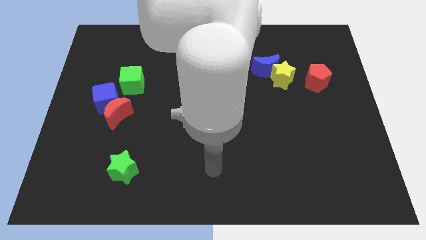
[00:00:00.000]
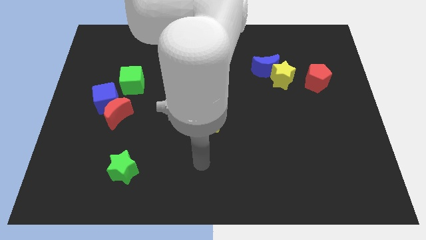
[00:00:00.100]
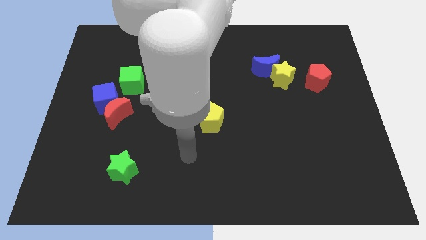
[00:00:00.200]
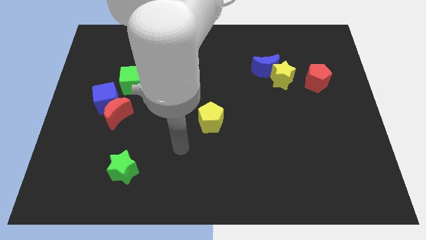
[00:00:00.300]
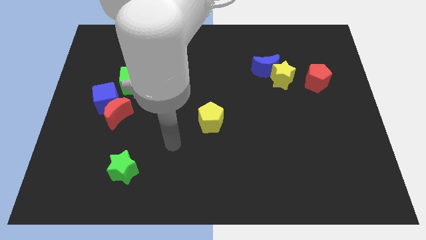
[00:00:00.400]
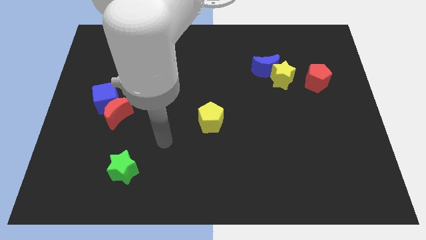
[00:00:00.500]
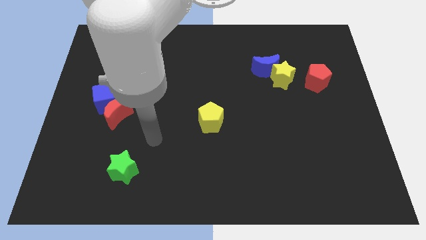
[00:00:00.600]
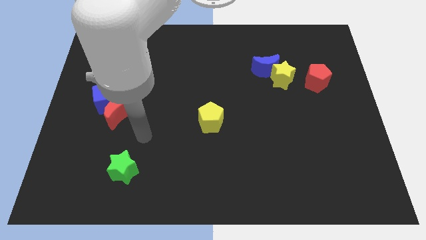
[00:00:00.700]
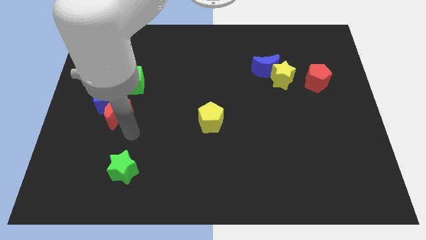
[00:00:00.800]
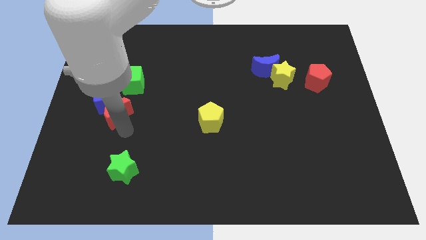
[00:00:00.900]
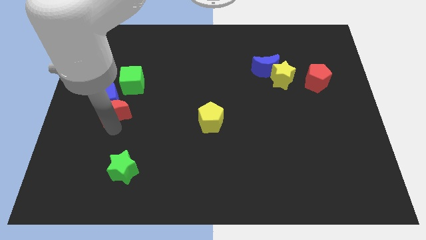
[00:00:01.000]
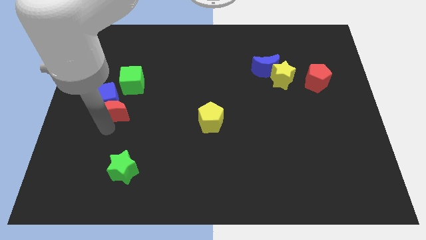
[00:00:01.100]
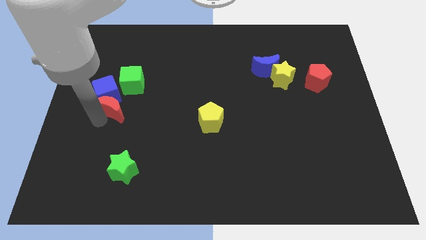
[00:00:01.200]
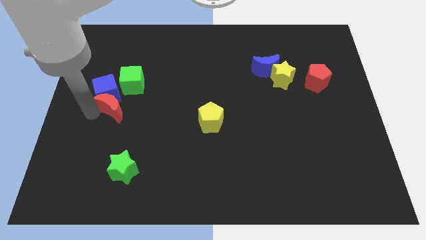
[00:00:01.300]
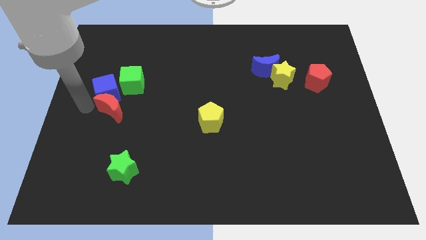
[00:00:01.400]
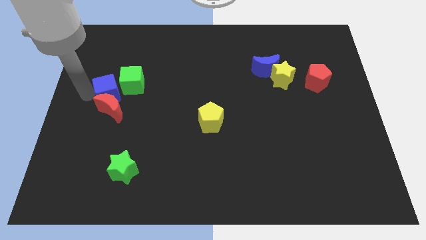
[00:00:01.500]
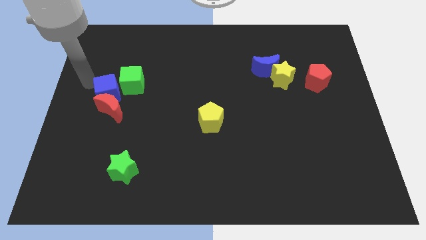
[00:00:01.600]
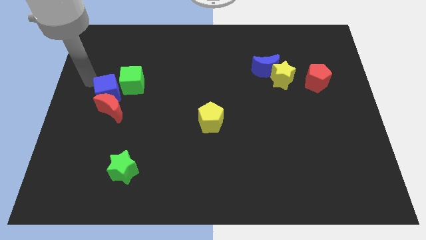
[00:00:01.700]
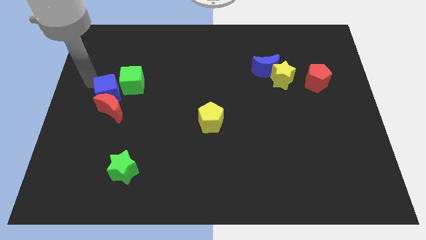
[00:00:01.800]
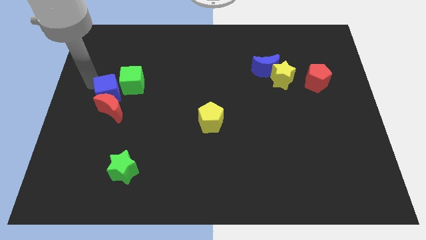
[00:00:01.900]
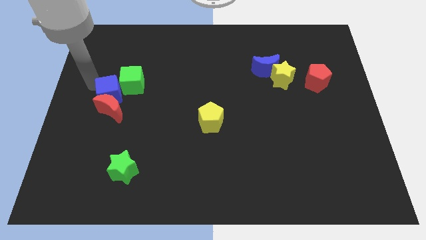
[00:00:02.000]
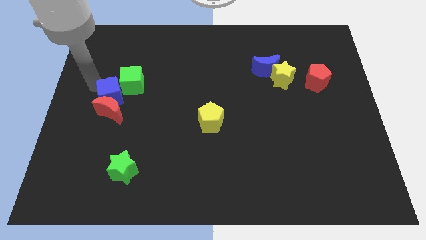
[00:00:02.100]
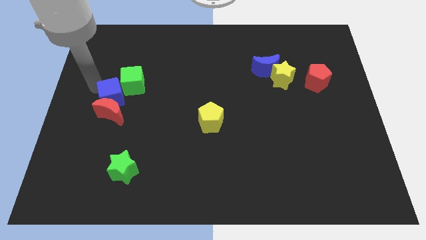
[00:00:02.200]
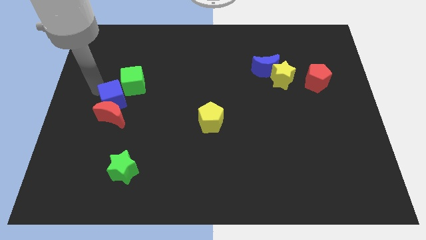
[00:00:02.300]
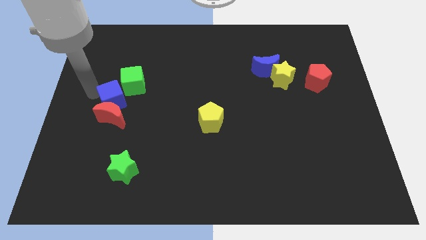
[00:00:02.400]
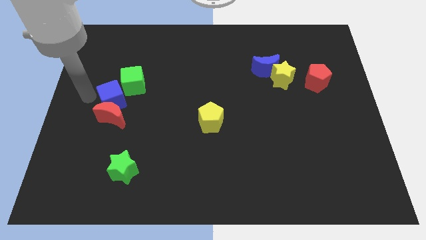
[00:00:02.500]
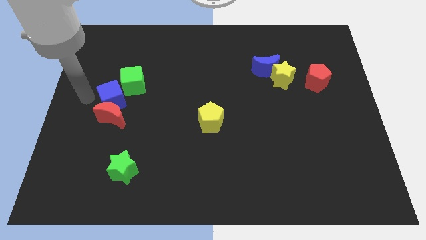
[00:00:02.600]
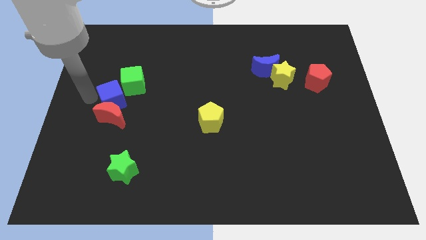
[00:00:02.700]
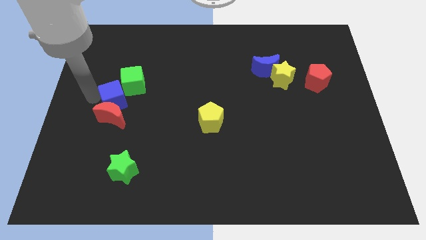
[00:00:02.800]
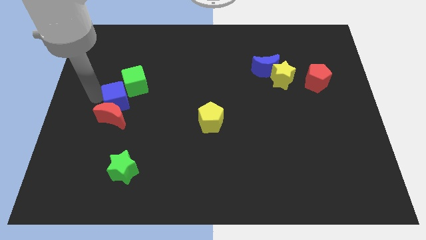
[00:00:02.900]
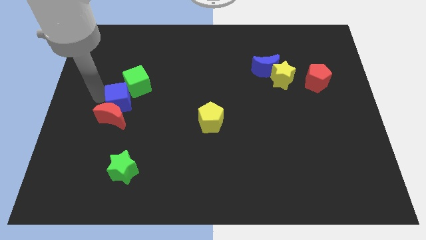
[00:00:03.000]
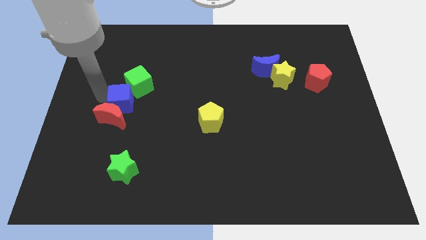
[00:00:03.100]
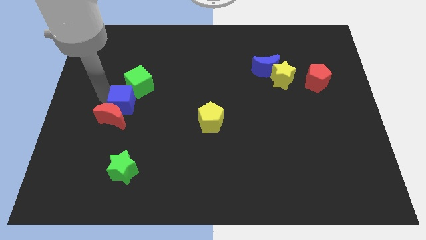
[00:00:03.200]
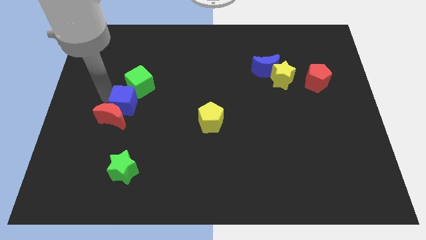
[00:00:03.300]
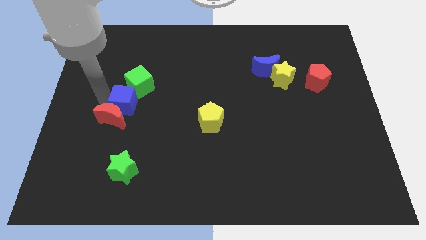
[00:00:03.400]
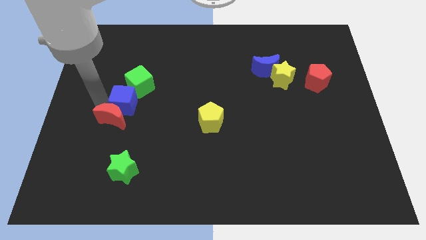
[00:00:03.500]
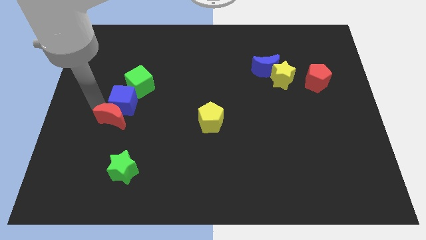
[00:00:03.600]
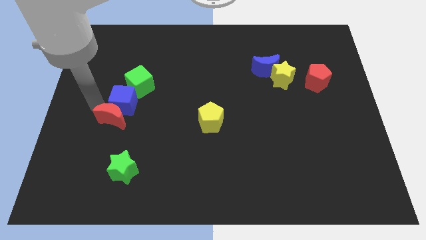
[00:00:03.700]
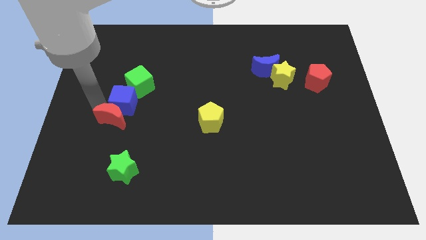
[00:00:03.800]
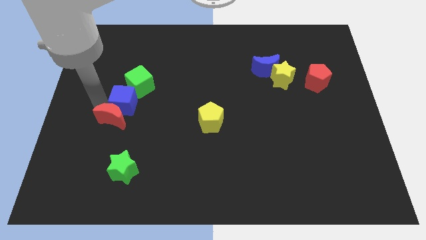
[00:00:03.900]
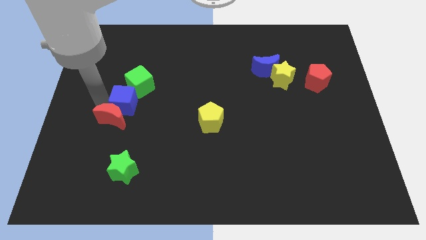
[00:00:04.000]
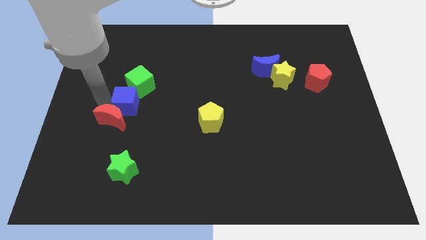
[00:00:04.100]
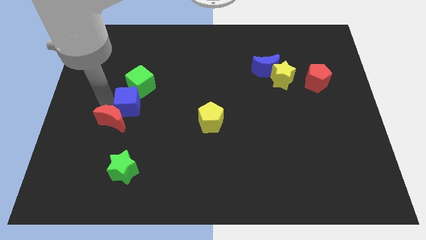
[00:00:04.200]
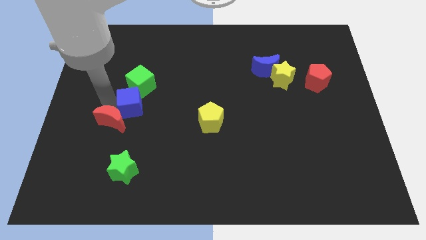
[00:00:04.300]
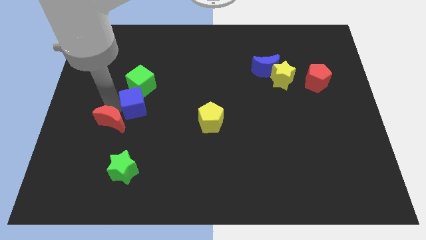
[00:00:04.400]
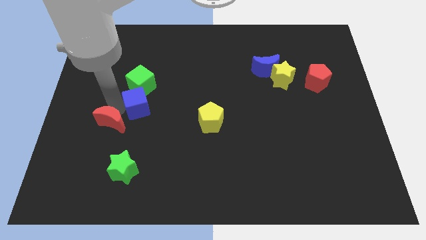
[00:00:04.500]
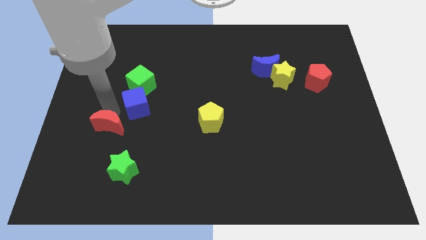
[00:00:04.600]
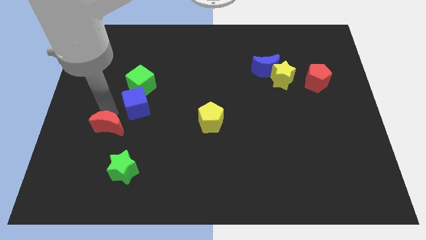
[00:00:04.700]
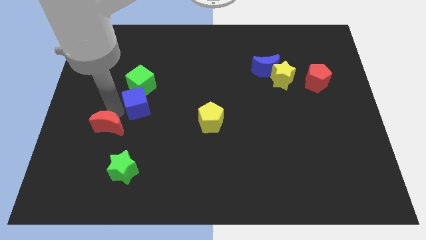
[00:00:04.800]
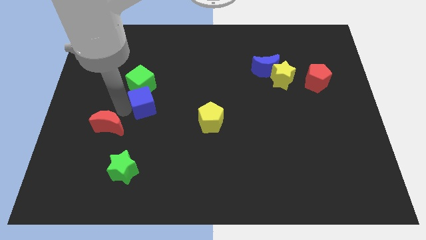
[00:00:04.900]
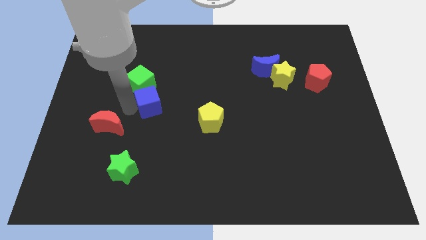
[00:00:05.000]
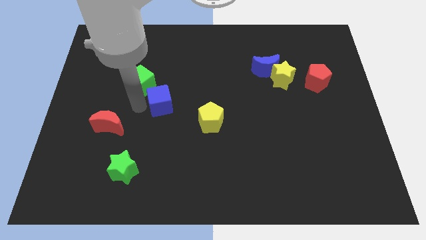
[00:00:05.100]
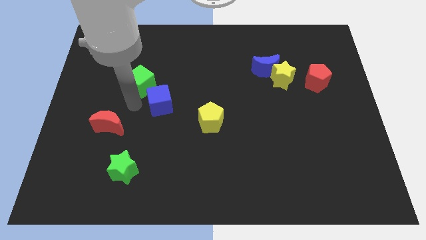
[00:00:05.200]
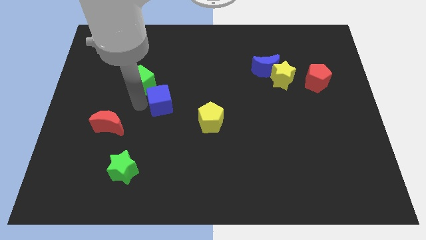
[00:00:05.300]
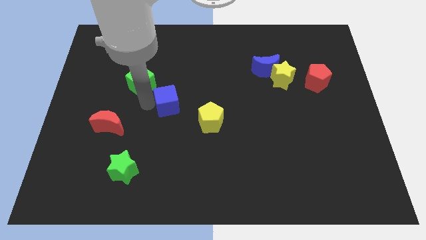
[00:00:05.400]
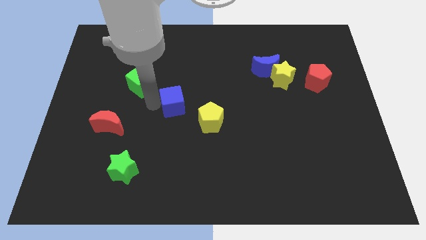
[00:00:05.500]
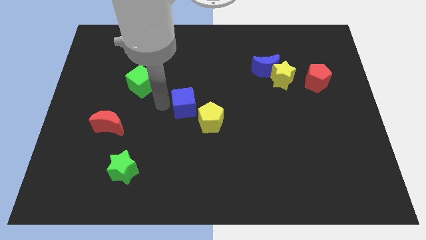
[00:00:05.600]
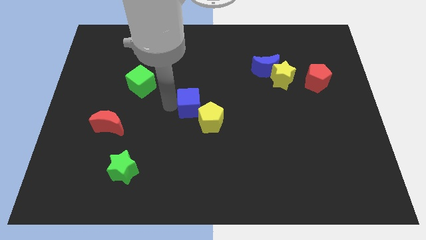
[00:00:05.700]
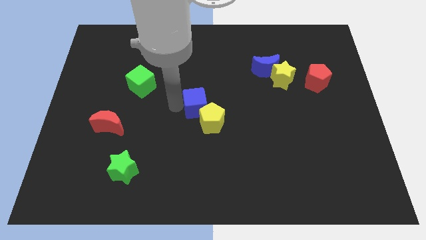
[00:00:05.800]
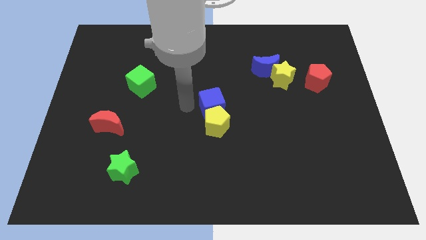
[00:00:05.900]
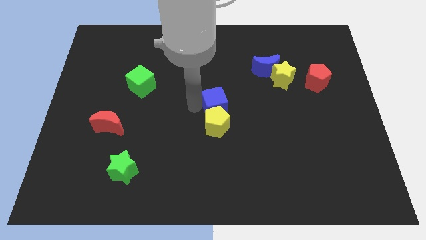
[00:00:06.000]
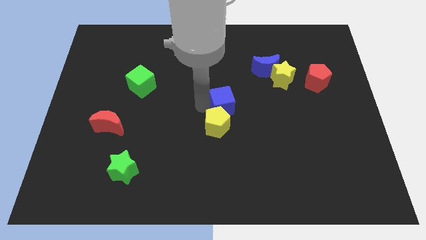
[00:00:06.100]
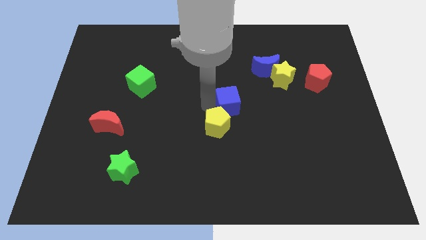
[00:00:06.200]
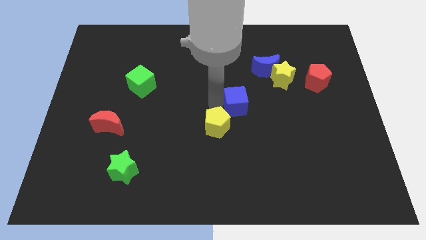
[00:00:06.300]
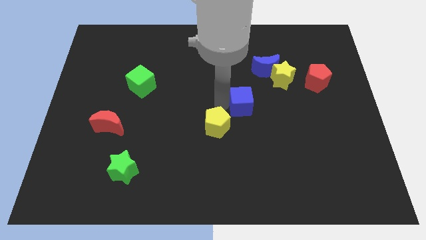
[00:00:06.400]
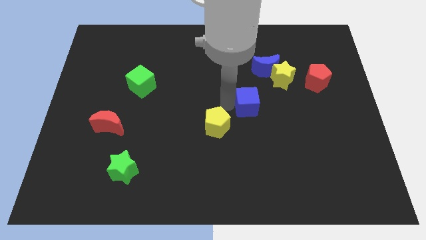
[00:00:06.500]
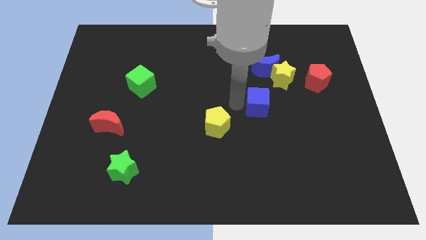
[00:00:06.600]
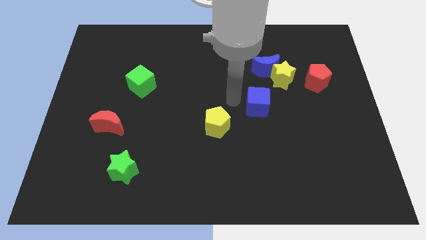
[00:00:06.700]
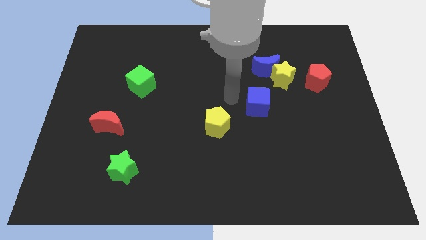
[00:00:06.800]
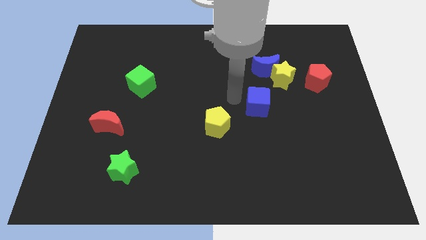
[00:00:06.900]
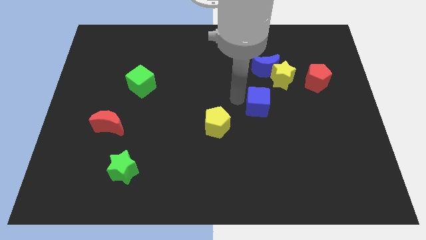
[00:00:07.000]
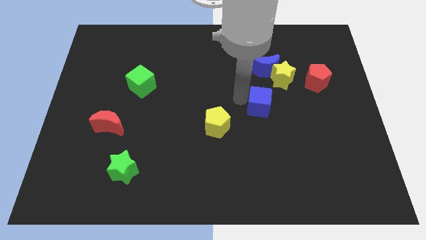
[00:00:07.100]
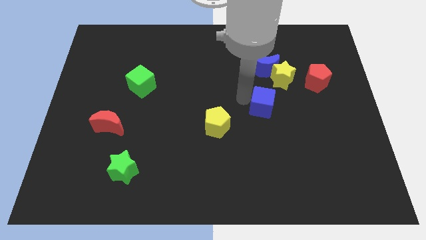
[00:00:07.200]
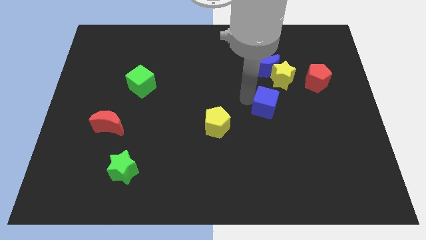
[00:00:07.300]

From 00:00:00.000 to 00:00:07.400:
push the blue cube below the yellow star

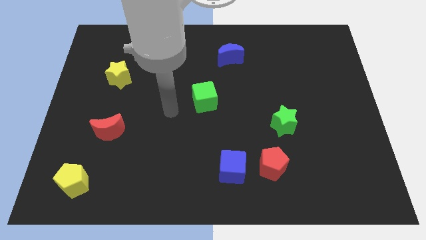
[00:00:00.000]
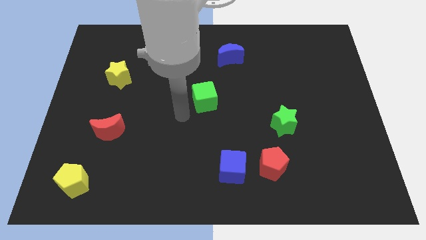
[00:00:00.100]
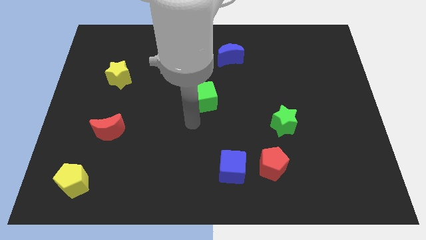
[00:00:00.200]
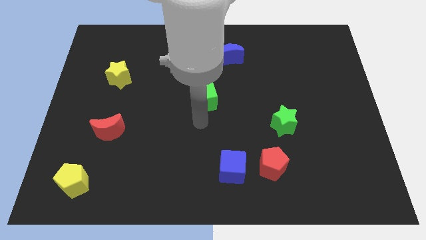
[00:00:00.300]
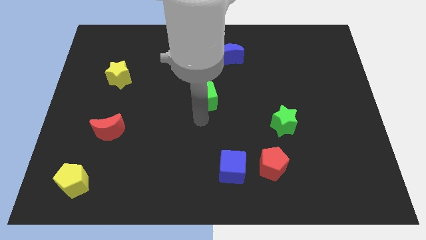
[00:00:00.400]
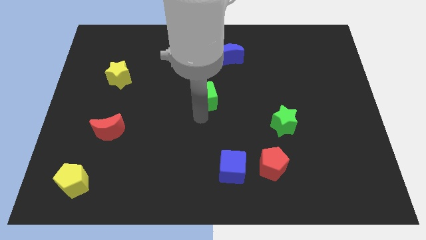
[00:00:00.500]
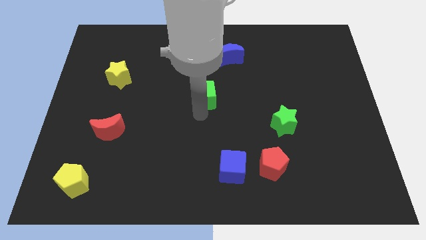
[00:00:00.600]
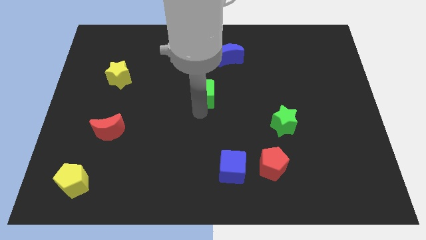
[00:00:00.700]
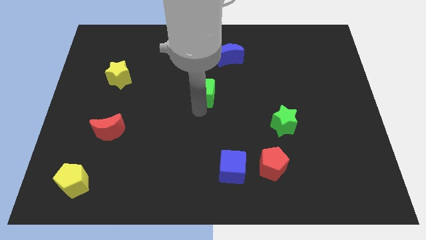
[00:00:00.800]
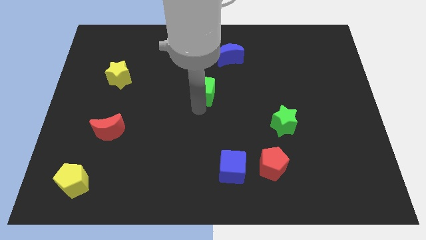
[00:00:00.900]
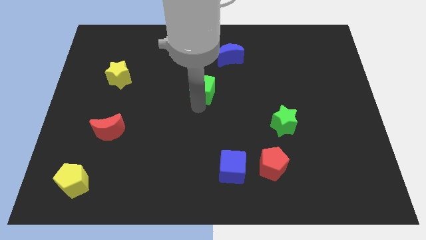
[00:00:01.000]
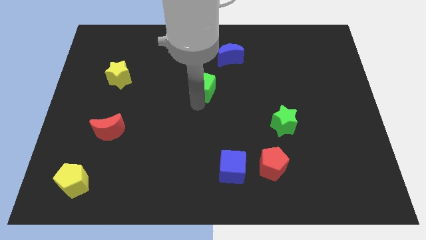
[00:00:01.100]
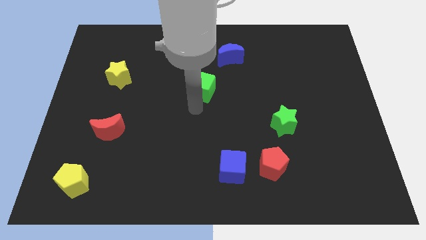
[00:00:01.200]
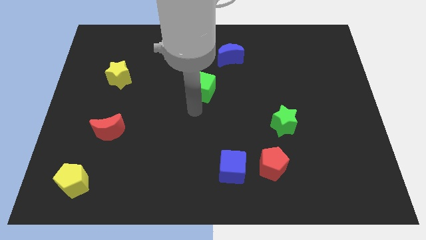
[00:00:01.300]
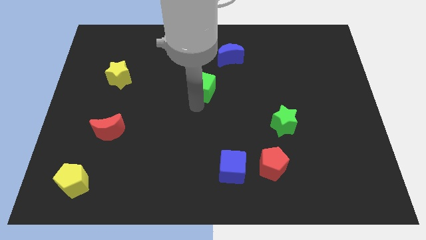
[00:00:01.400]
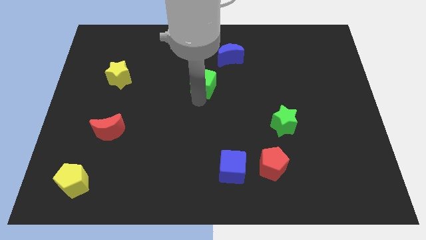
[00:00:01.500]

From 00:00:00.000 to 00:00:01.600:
move the green cube to the bottom left of the blue moon
